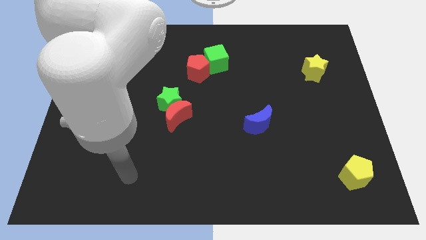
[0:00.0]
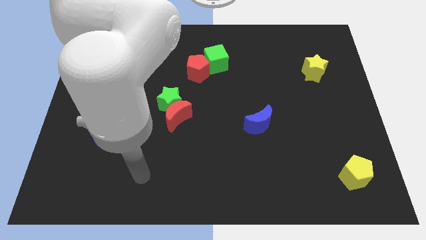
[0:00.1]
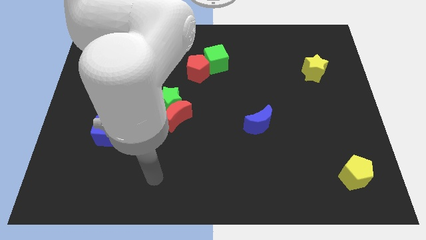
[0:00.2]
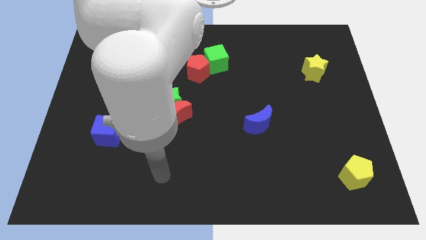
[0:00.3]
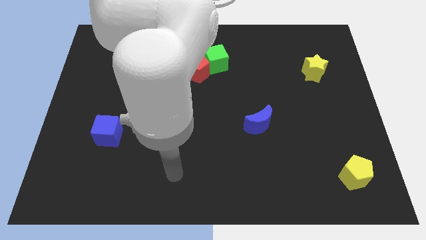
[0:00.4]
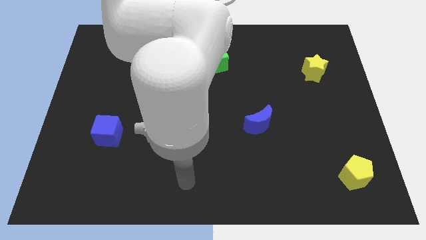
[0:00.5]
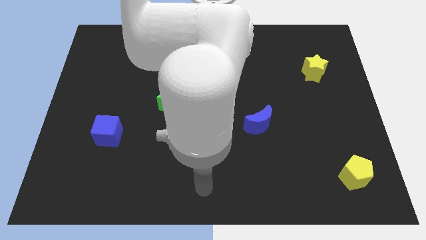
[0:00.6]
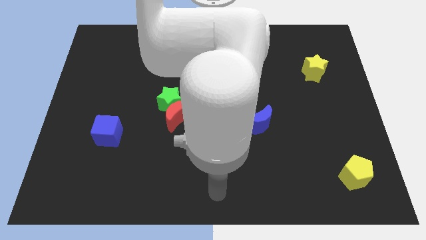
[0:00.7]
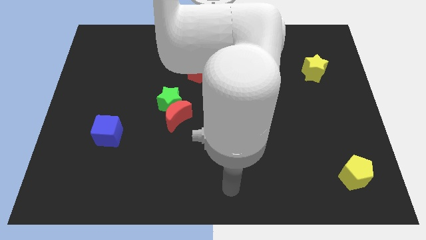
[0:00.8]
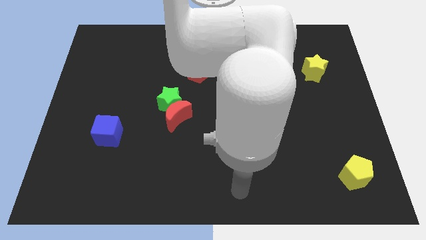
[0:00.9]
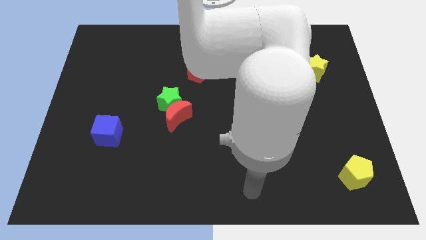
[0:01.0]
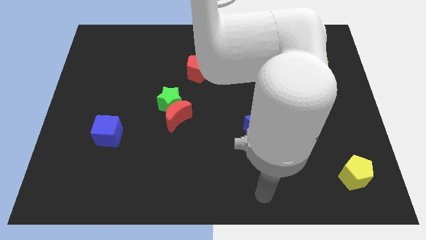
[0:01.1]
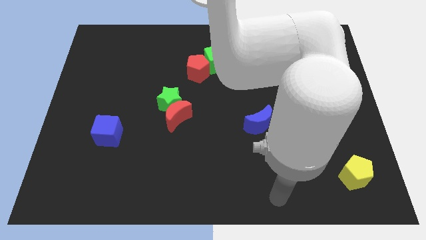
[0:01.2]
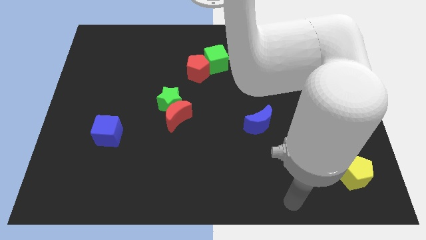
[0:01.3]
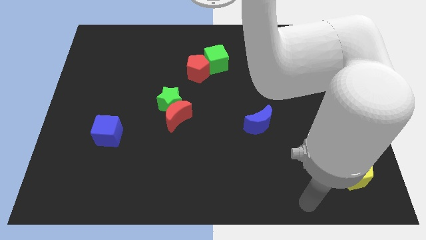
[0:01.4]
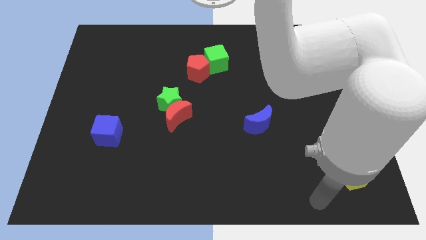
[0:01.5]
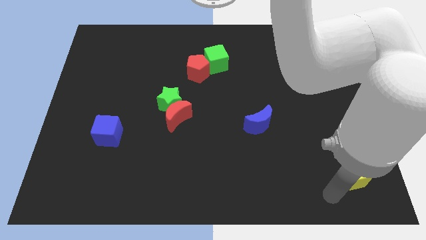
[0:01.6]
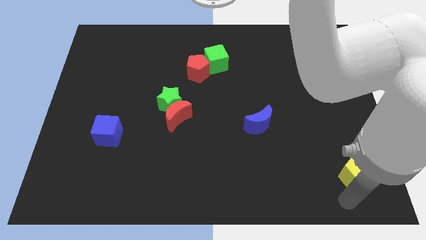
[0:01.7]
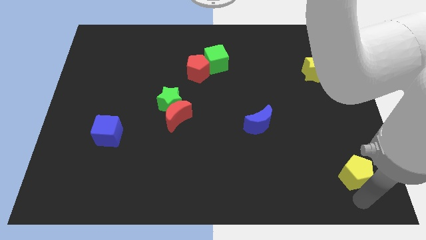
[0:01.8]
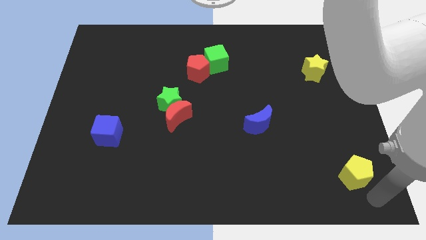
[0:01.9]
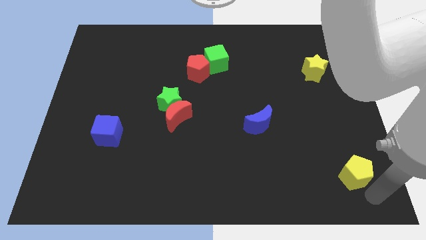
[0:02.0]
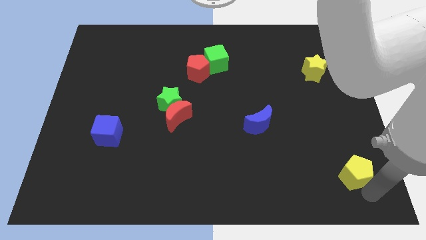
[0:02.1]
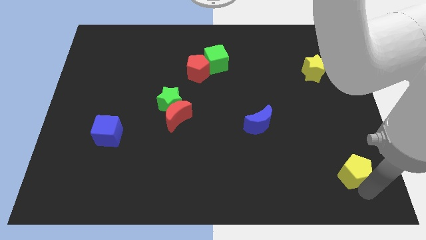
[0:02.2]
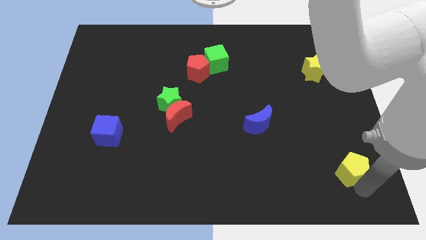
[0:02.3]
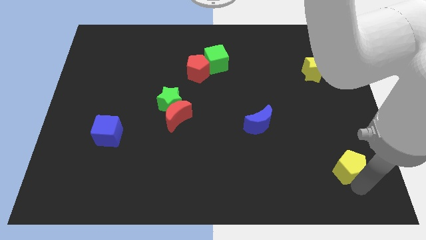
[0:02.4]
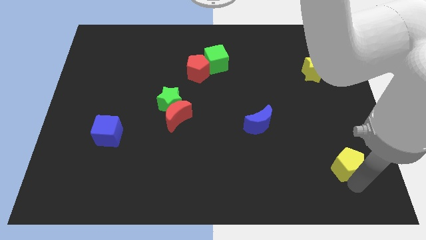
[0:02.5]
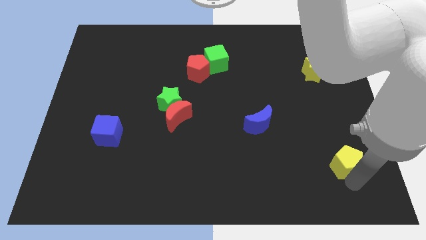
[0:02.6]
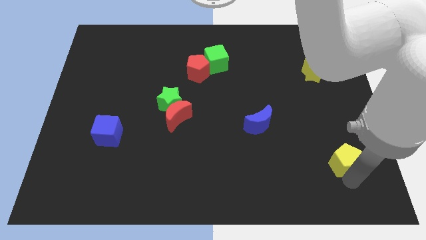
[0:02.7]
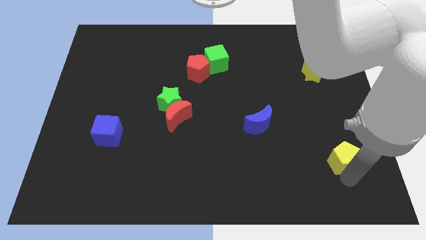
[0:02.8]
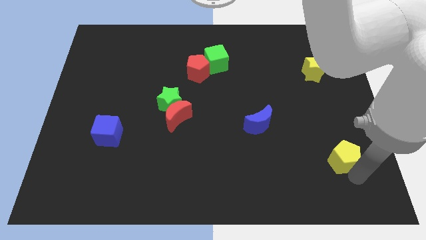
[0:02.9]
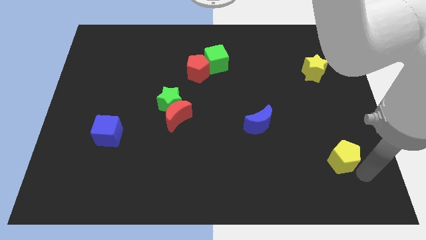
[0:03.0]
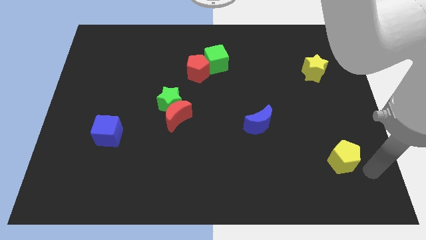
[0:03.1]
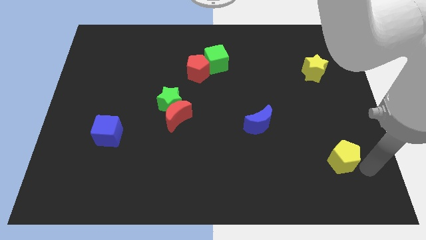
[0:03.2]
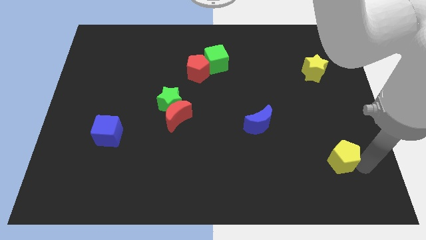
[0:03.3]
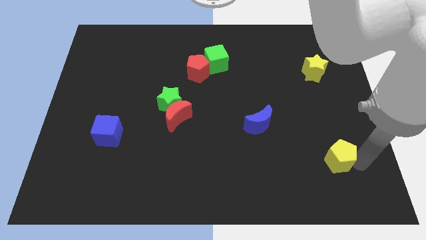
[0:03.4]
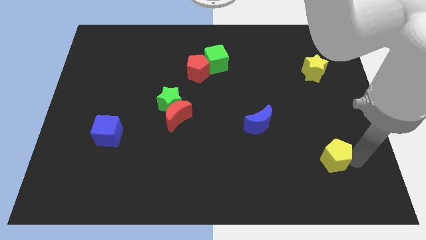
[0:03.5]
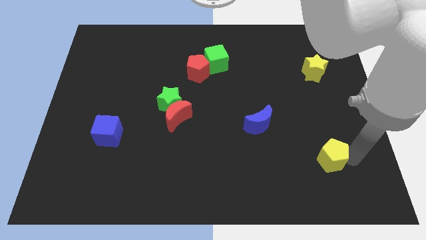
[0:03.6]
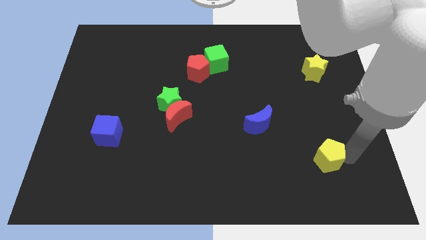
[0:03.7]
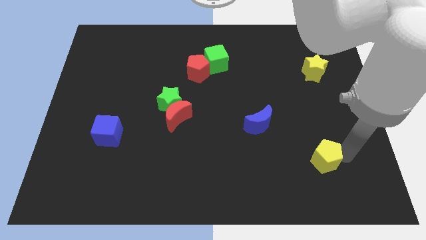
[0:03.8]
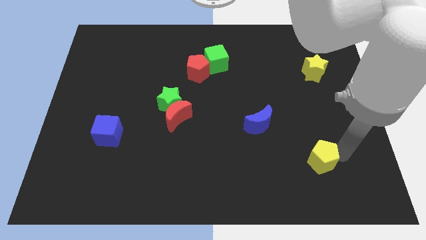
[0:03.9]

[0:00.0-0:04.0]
slightly push the yellow pentagon up and to the left

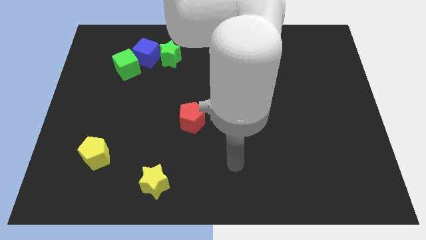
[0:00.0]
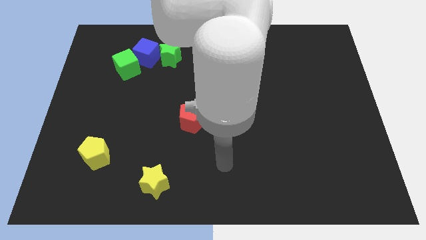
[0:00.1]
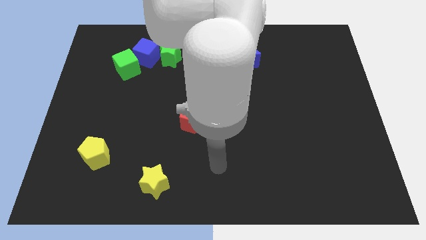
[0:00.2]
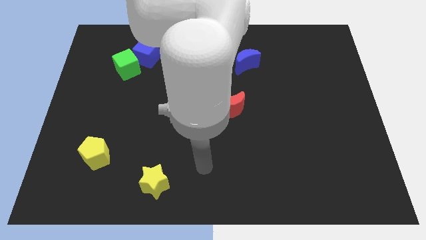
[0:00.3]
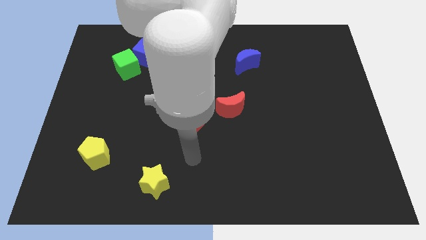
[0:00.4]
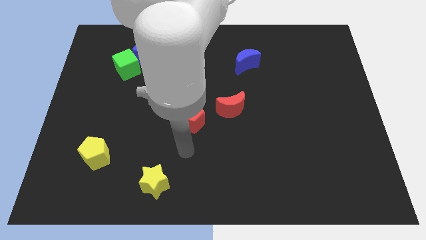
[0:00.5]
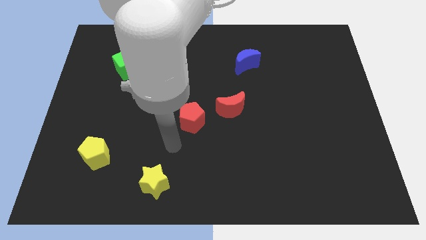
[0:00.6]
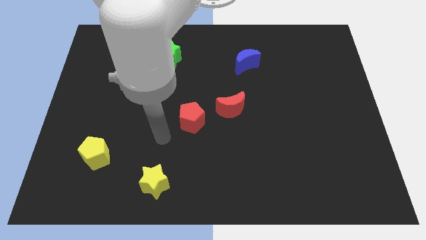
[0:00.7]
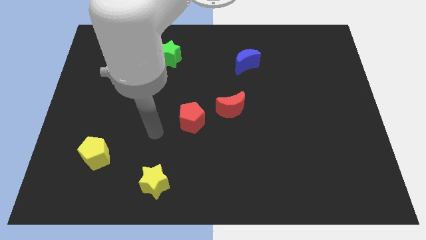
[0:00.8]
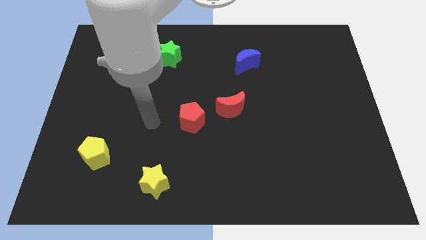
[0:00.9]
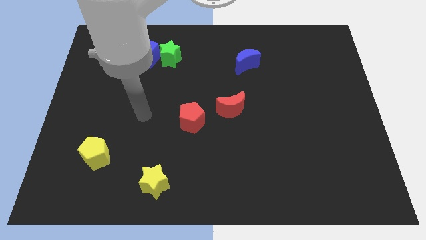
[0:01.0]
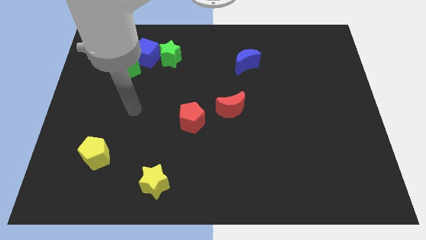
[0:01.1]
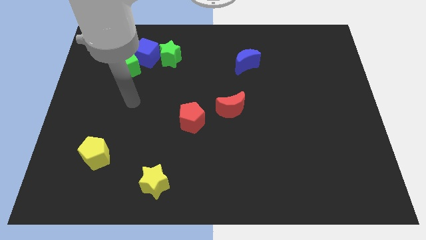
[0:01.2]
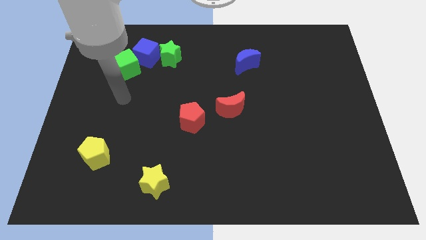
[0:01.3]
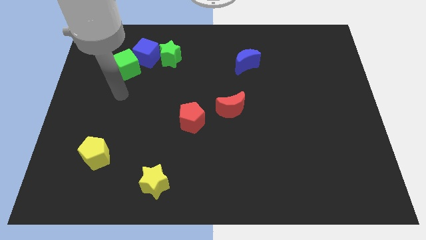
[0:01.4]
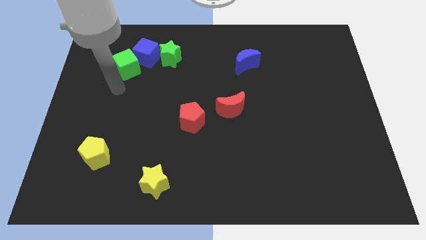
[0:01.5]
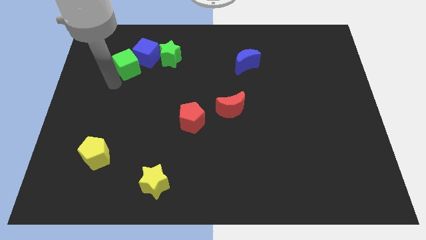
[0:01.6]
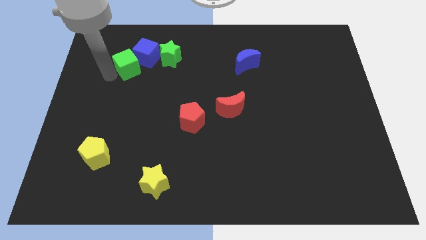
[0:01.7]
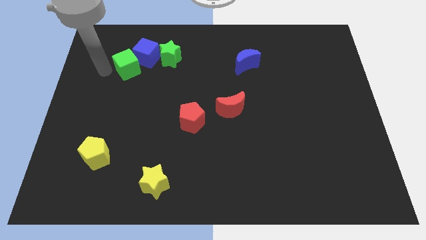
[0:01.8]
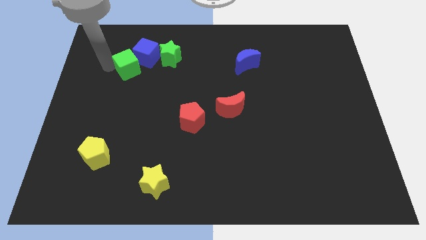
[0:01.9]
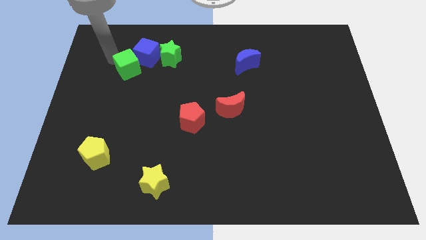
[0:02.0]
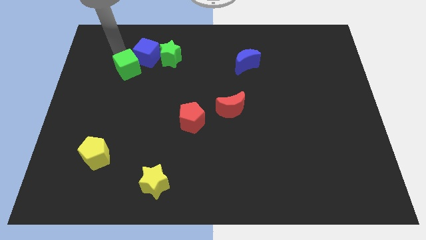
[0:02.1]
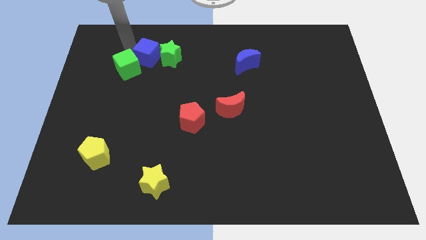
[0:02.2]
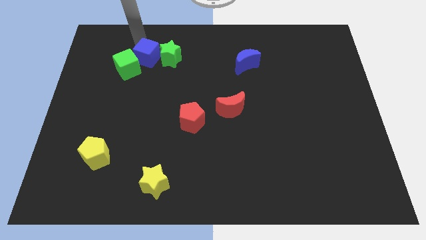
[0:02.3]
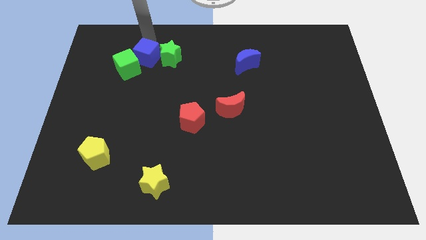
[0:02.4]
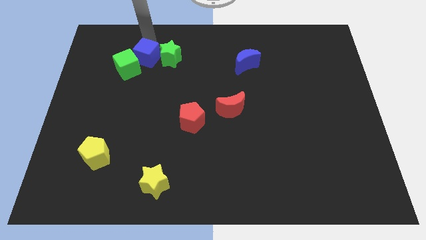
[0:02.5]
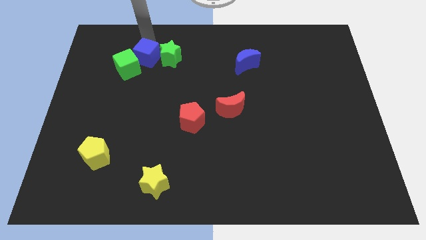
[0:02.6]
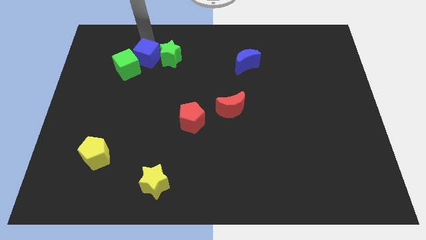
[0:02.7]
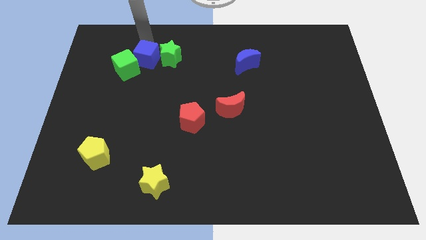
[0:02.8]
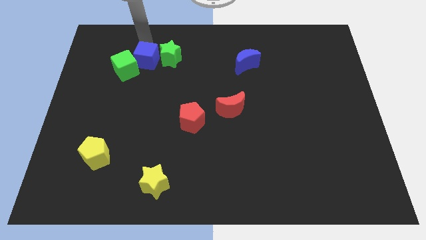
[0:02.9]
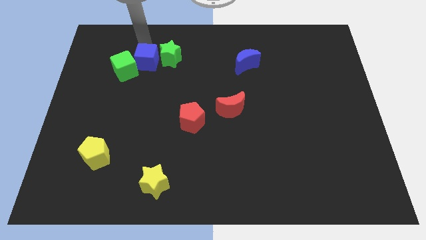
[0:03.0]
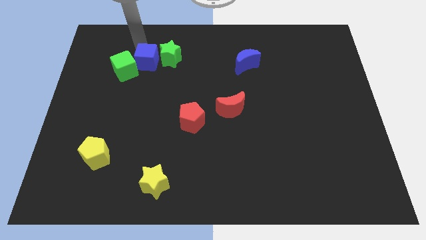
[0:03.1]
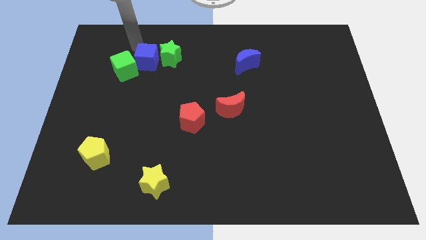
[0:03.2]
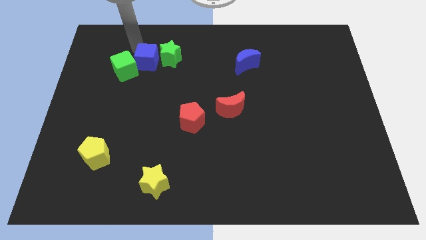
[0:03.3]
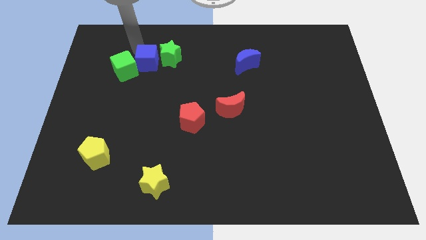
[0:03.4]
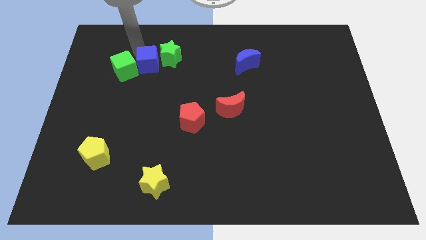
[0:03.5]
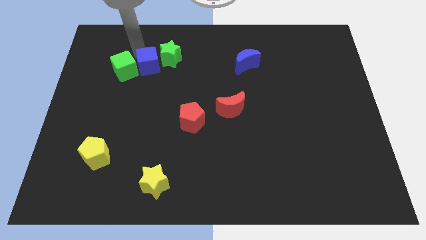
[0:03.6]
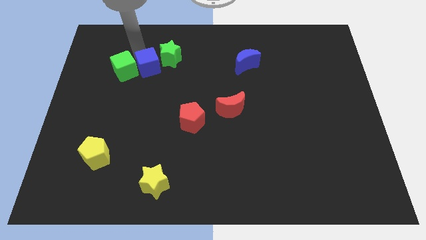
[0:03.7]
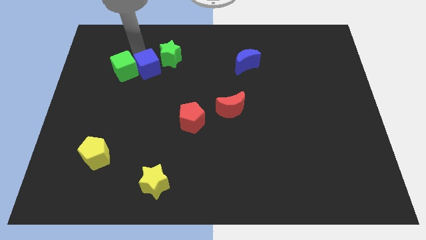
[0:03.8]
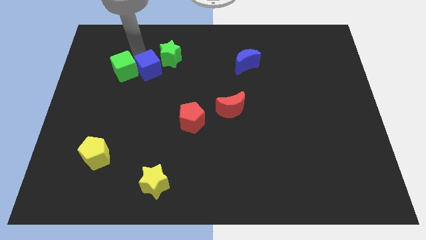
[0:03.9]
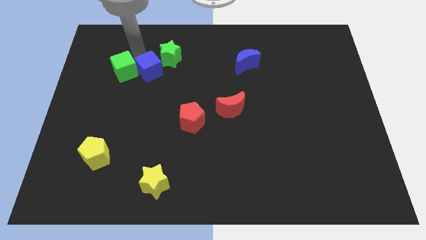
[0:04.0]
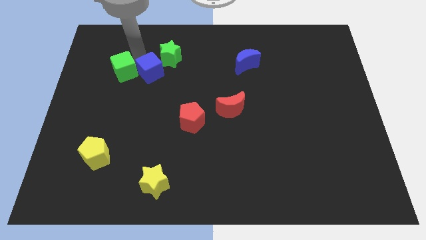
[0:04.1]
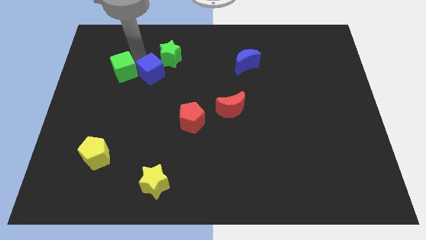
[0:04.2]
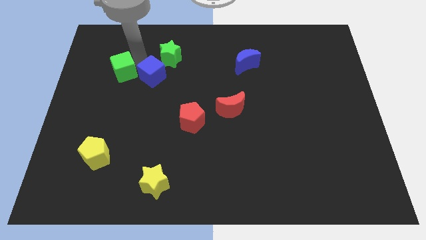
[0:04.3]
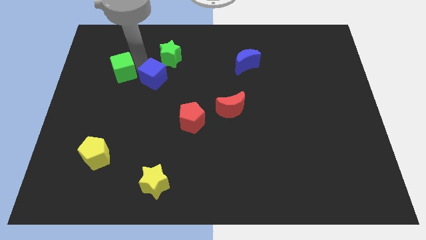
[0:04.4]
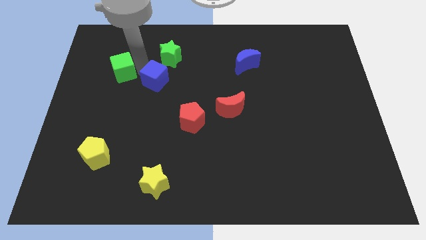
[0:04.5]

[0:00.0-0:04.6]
move the blue cube a bit diagonally down and right
